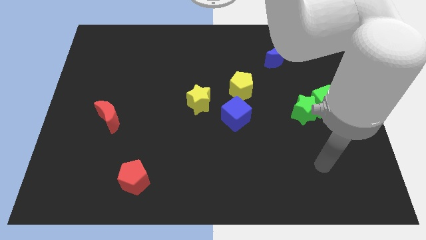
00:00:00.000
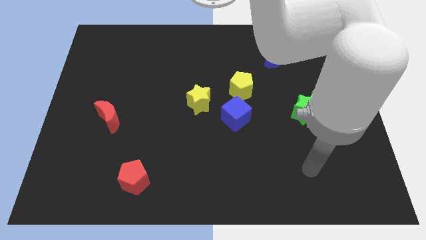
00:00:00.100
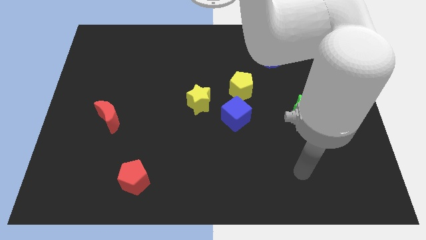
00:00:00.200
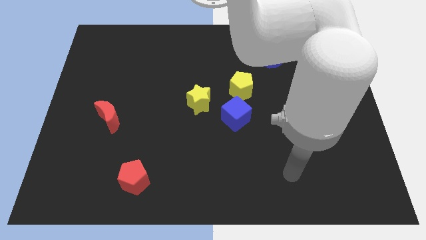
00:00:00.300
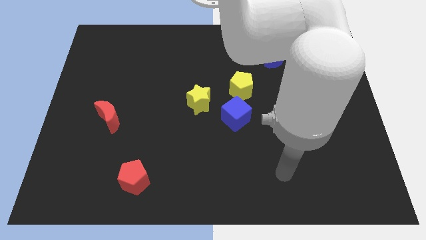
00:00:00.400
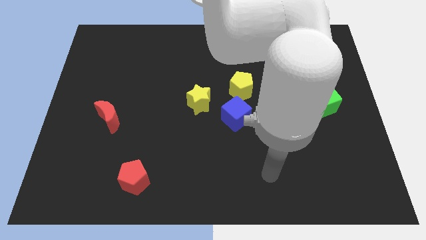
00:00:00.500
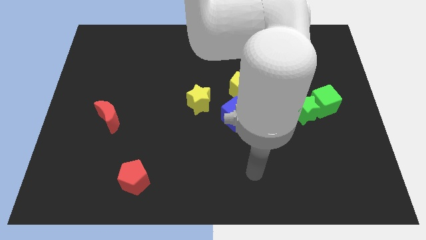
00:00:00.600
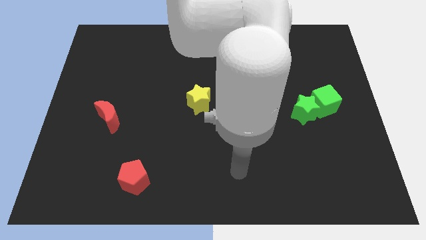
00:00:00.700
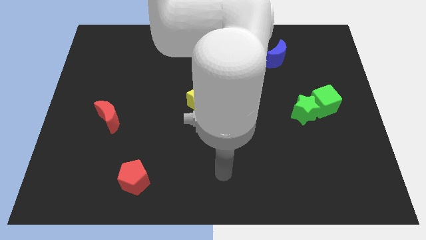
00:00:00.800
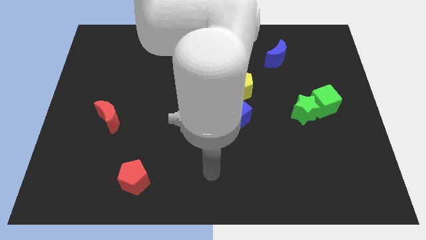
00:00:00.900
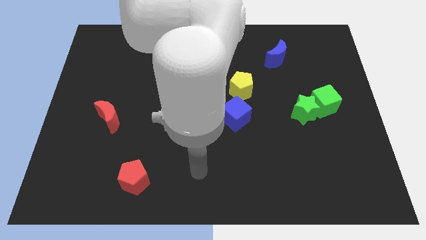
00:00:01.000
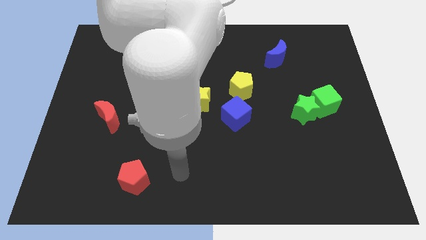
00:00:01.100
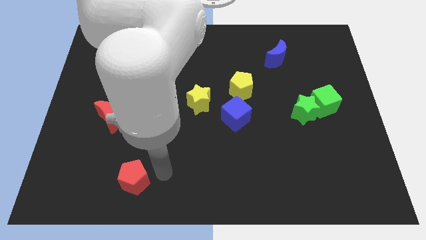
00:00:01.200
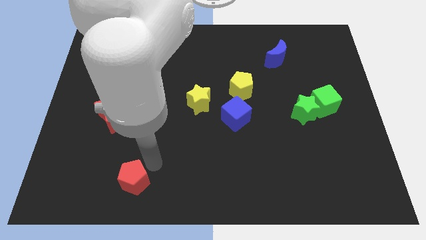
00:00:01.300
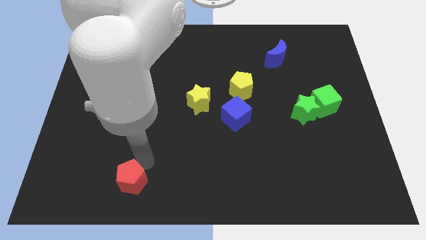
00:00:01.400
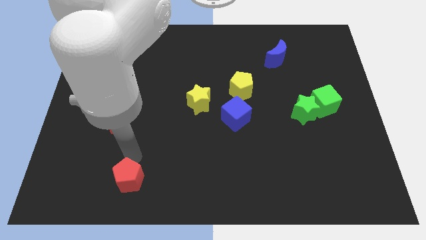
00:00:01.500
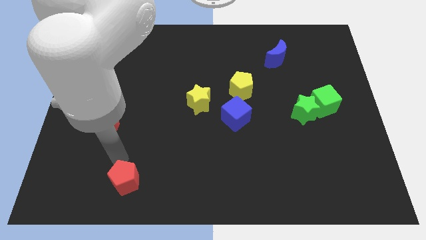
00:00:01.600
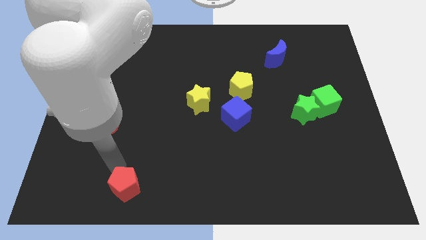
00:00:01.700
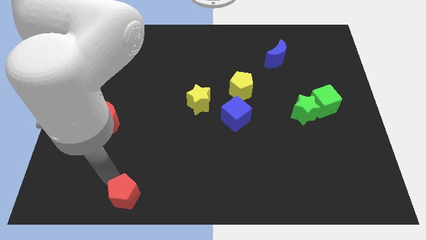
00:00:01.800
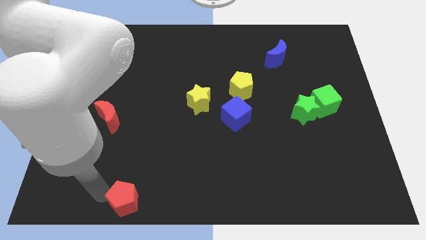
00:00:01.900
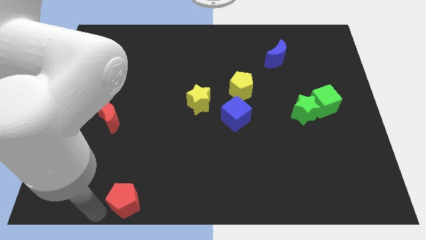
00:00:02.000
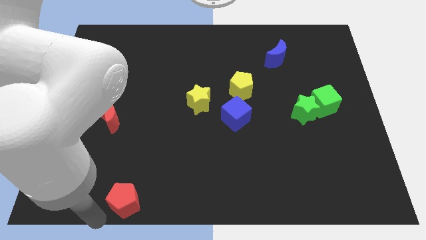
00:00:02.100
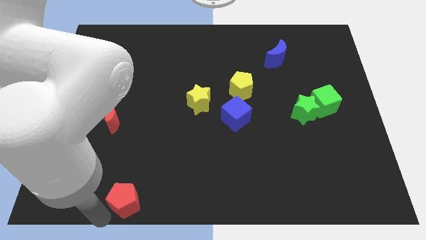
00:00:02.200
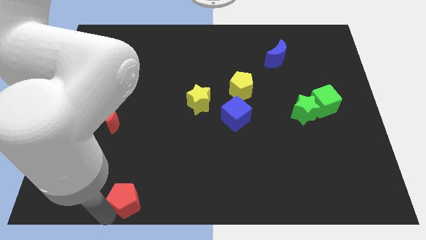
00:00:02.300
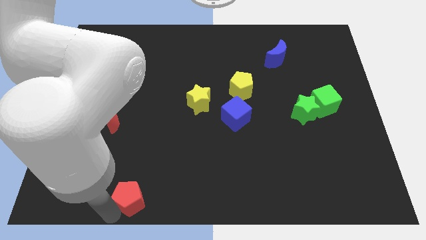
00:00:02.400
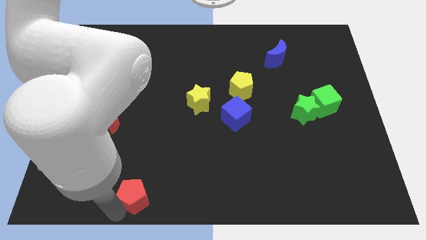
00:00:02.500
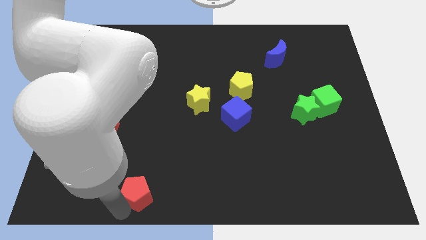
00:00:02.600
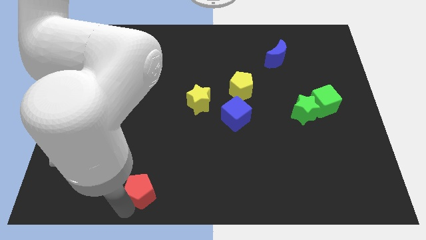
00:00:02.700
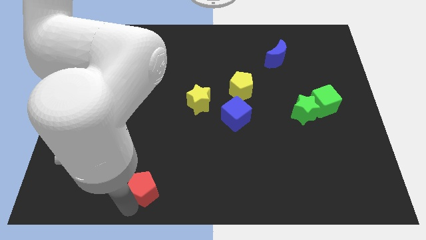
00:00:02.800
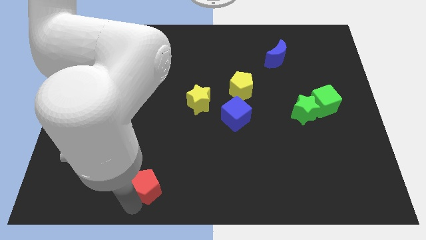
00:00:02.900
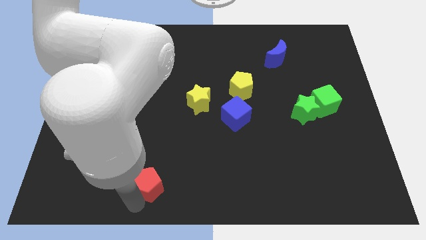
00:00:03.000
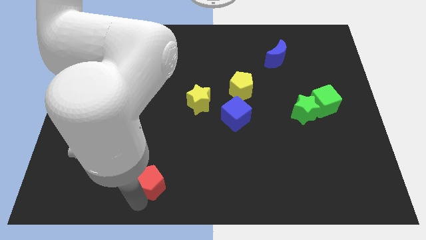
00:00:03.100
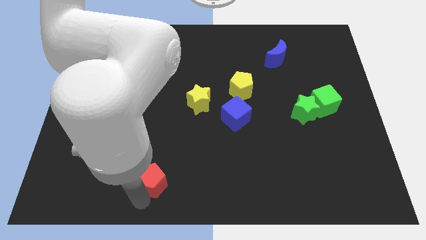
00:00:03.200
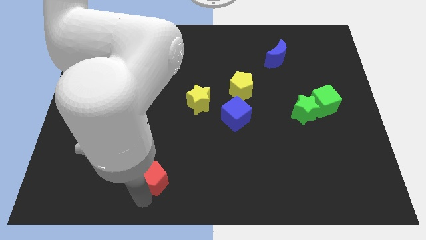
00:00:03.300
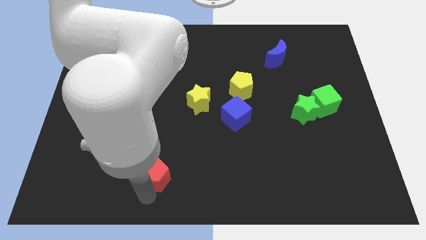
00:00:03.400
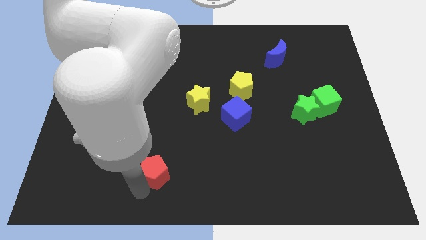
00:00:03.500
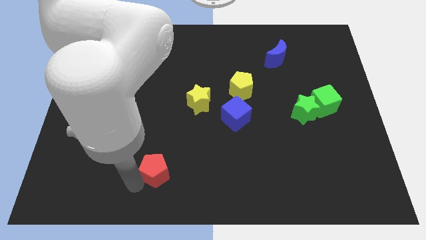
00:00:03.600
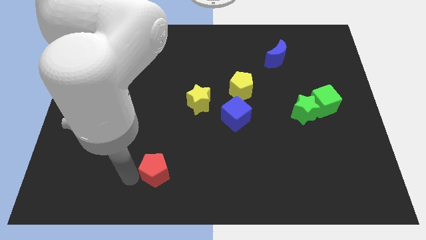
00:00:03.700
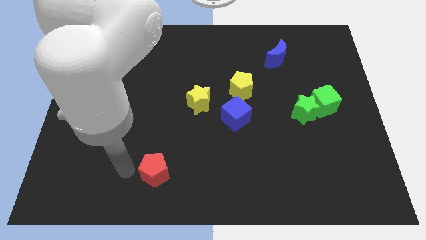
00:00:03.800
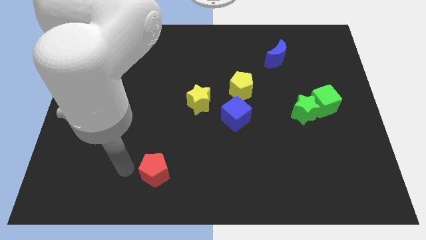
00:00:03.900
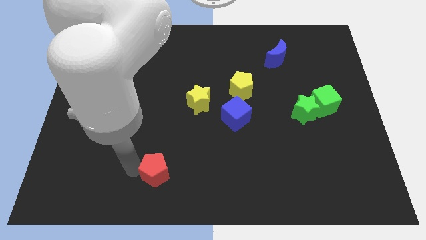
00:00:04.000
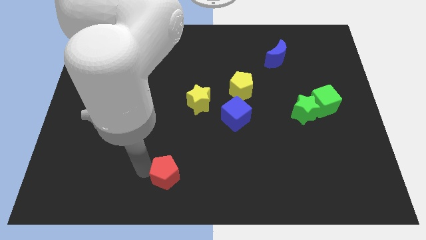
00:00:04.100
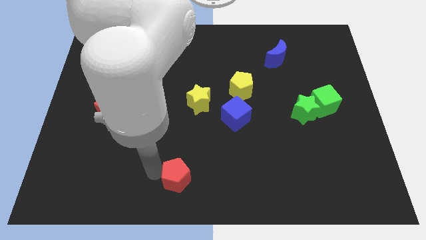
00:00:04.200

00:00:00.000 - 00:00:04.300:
slide the red pentagon right a bit

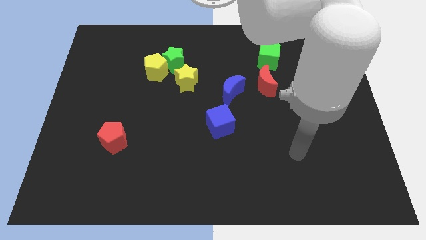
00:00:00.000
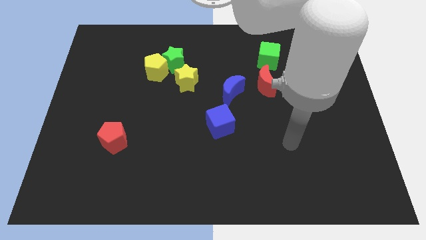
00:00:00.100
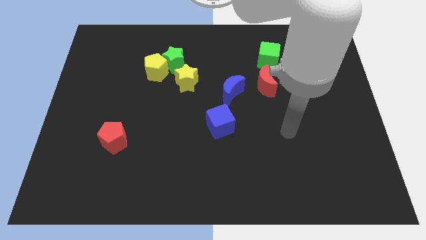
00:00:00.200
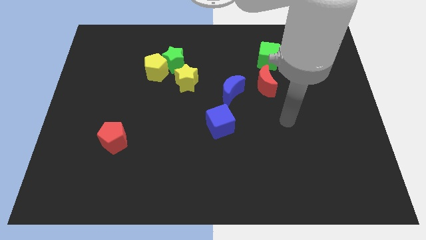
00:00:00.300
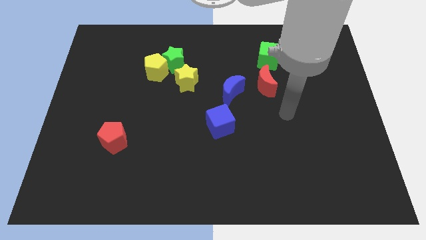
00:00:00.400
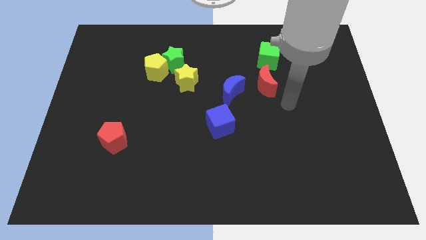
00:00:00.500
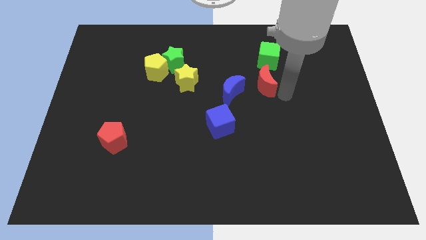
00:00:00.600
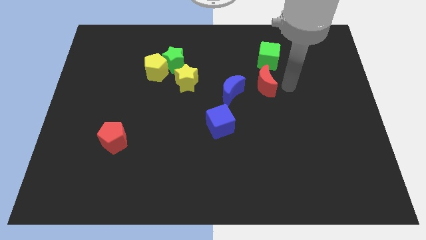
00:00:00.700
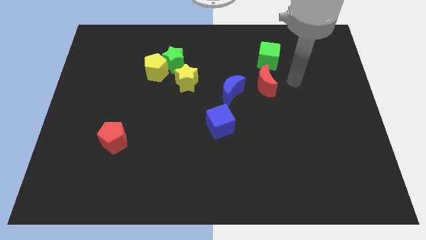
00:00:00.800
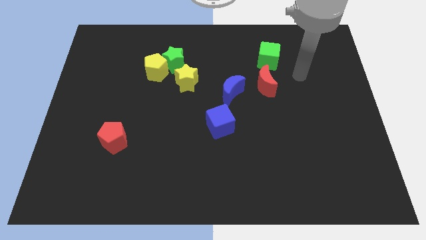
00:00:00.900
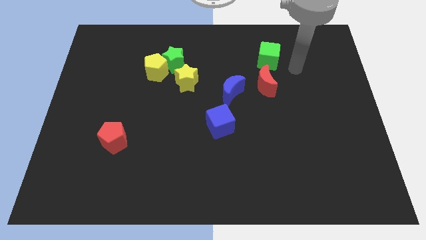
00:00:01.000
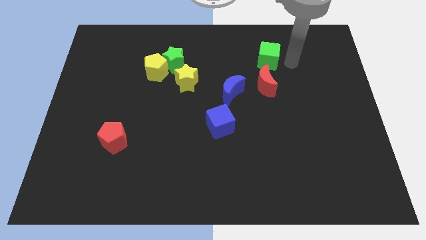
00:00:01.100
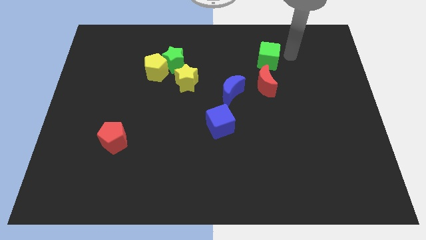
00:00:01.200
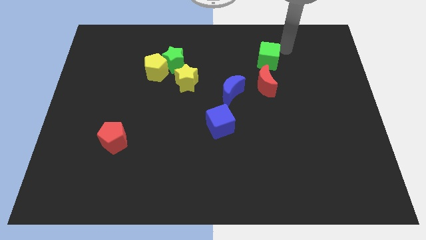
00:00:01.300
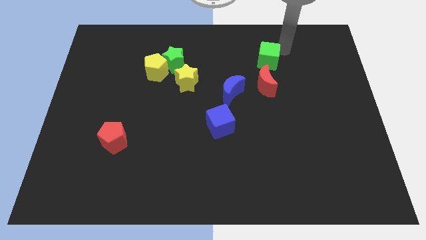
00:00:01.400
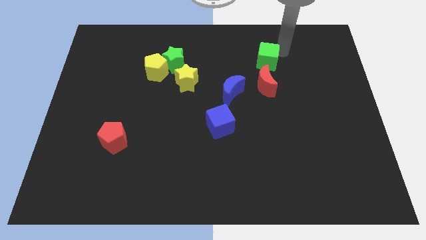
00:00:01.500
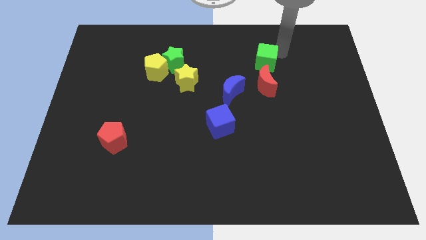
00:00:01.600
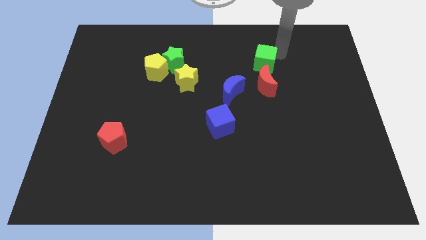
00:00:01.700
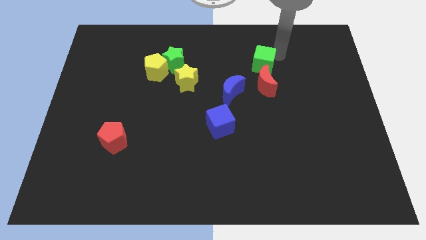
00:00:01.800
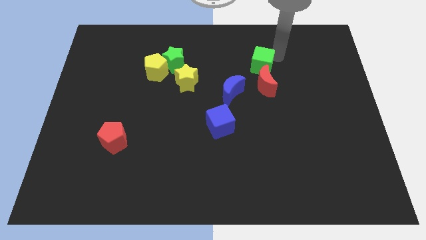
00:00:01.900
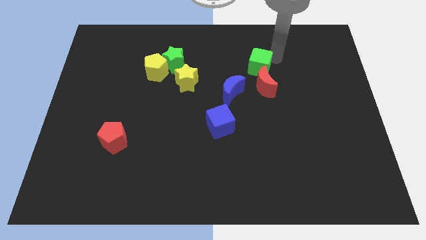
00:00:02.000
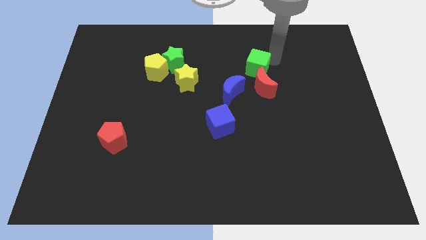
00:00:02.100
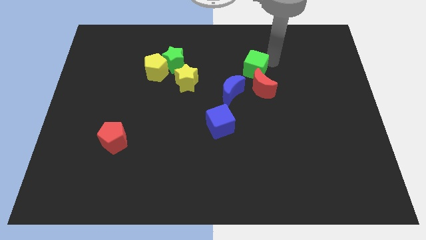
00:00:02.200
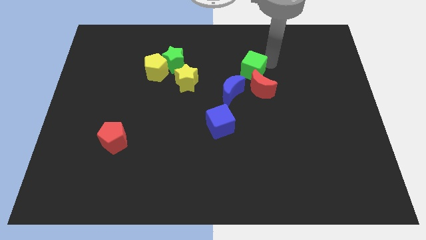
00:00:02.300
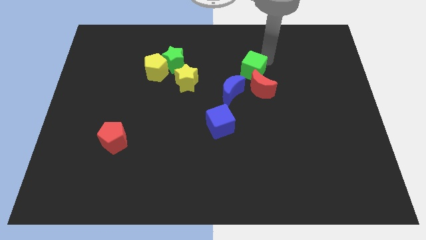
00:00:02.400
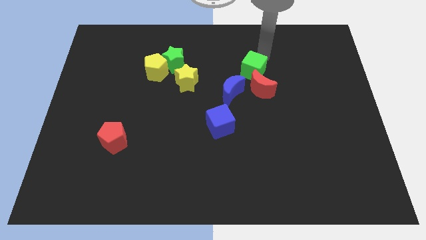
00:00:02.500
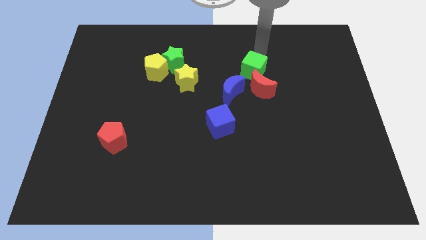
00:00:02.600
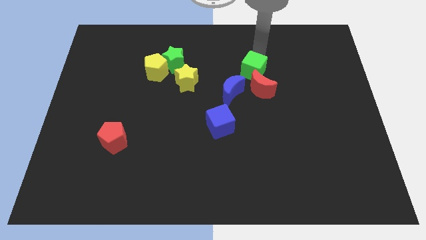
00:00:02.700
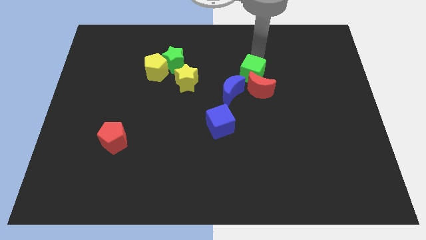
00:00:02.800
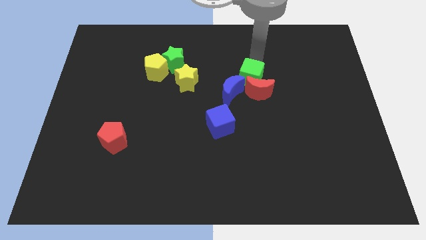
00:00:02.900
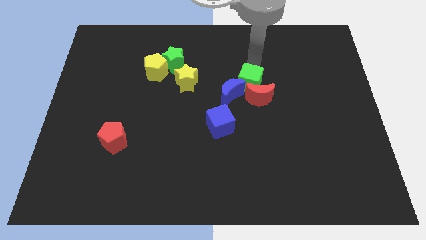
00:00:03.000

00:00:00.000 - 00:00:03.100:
move the green cube downwards a bit

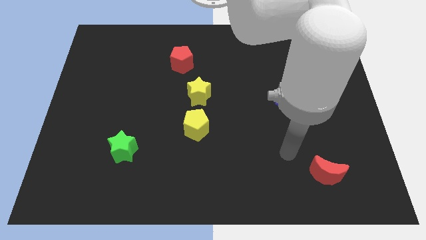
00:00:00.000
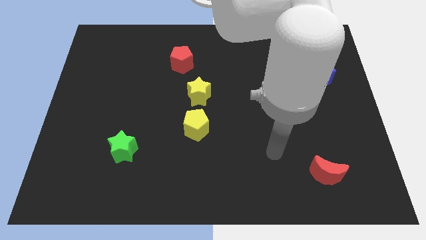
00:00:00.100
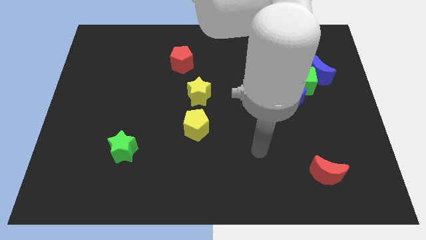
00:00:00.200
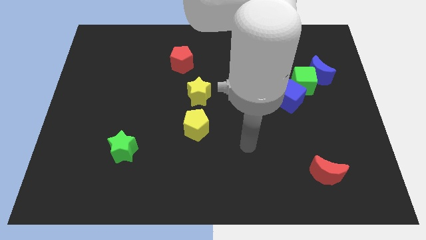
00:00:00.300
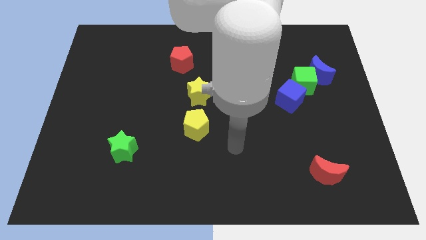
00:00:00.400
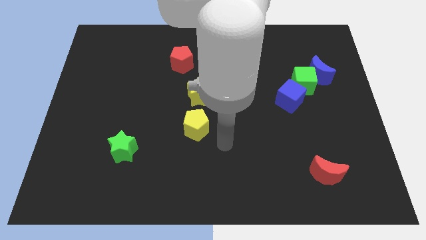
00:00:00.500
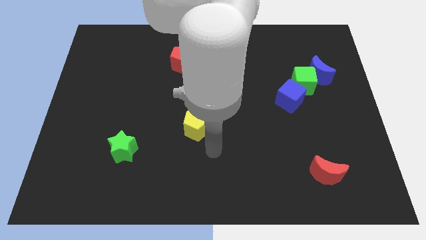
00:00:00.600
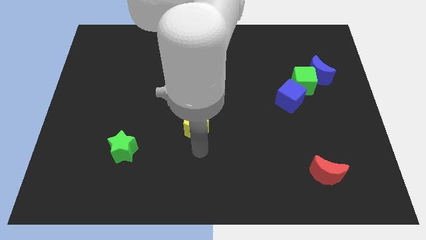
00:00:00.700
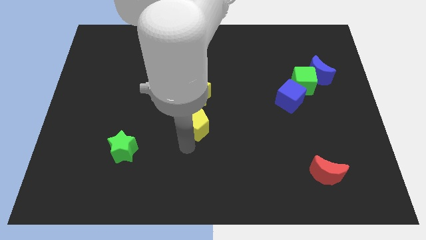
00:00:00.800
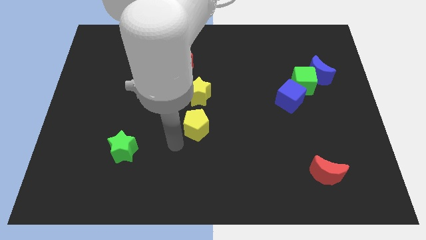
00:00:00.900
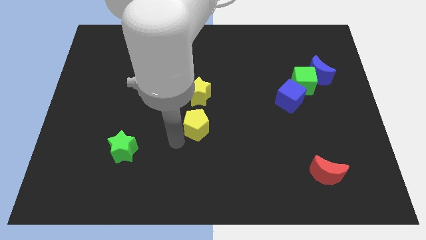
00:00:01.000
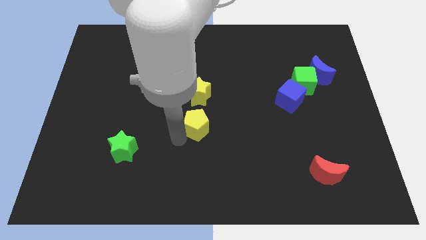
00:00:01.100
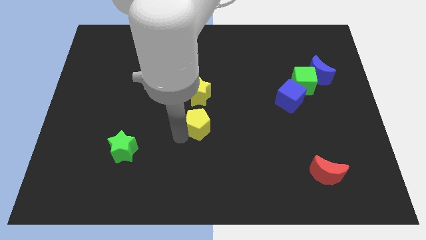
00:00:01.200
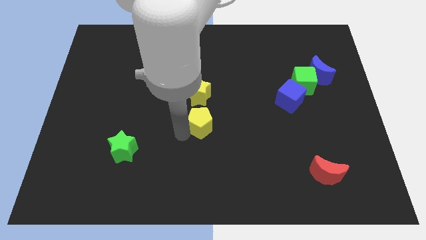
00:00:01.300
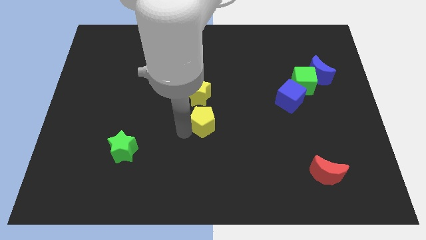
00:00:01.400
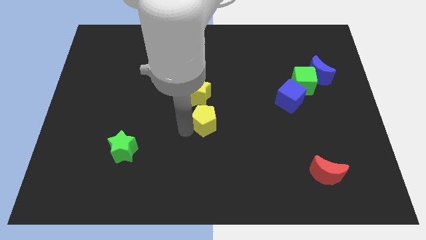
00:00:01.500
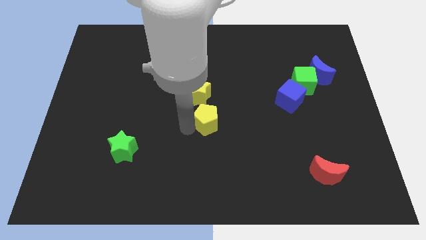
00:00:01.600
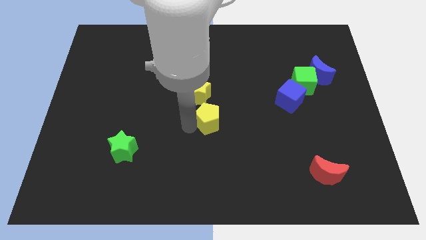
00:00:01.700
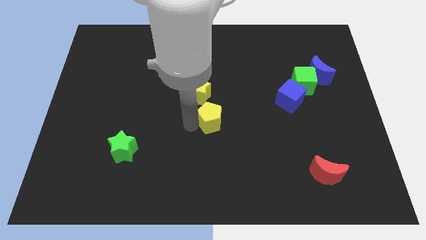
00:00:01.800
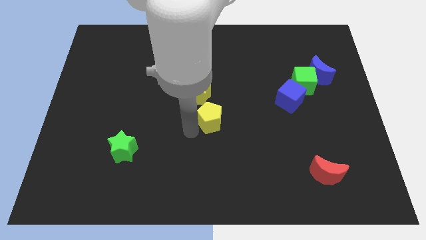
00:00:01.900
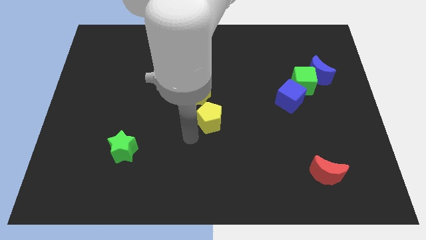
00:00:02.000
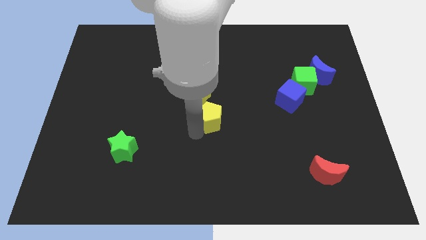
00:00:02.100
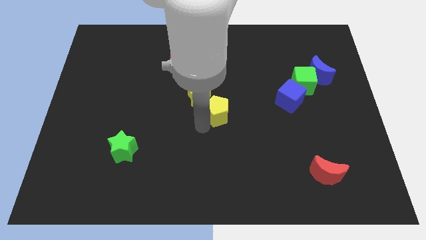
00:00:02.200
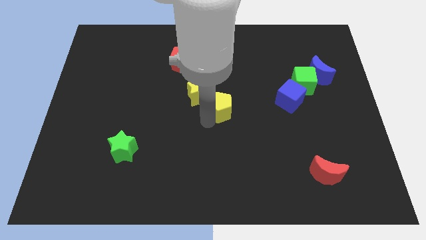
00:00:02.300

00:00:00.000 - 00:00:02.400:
slide the yellow pentagon upwards and to the right diagonally a little
